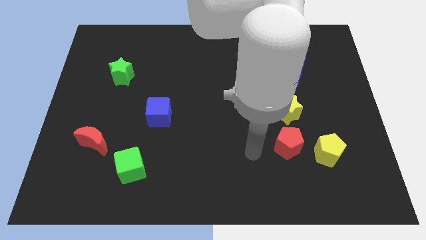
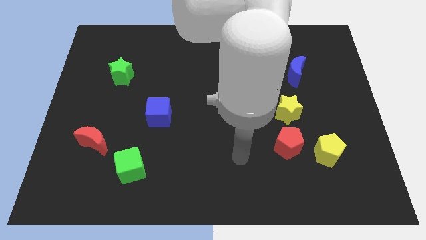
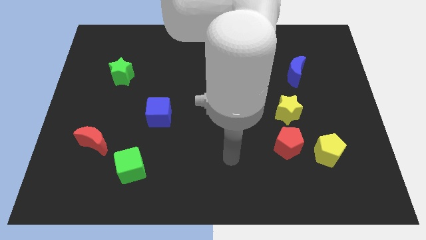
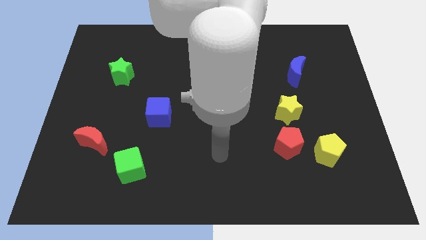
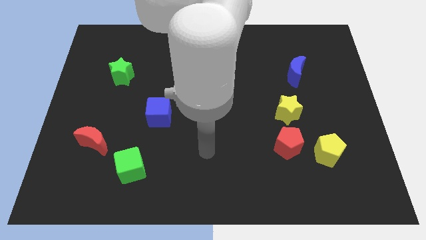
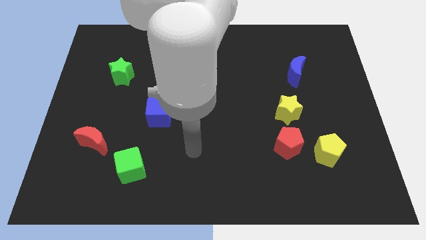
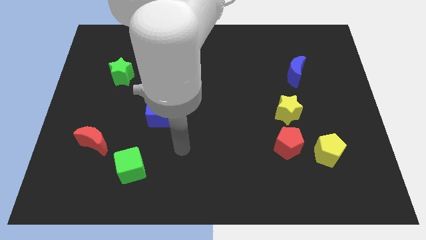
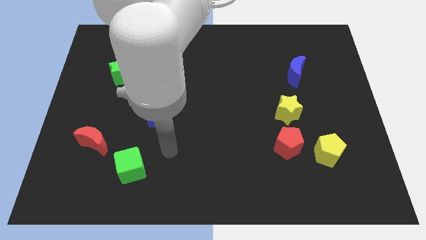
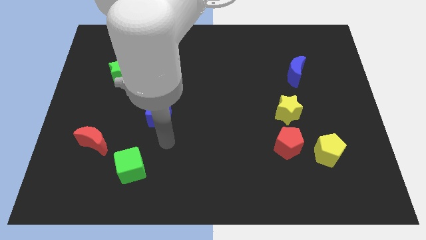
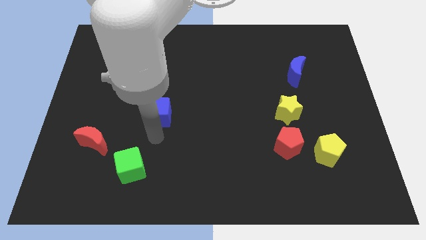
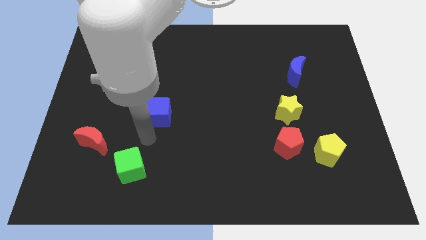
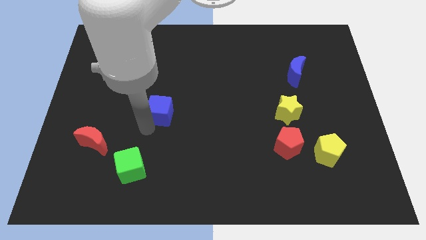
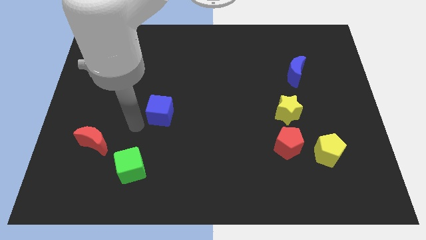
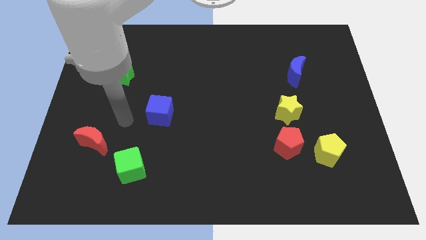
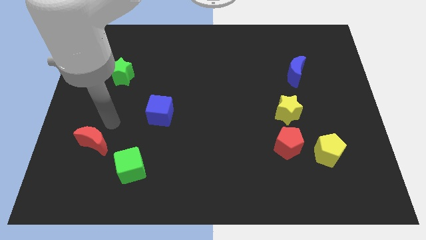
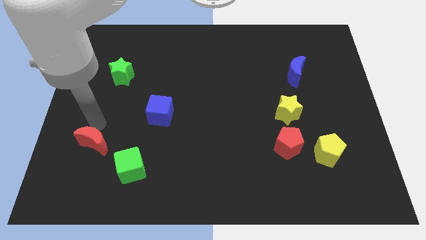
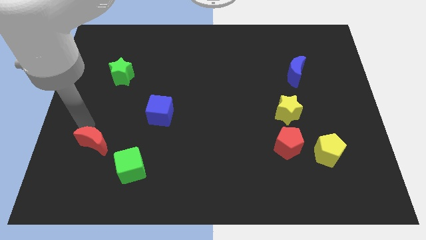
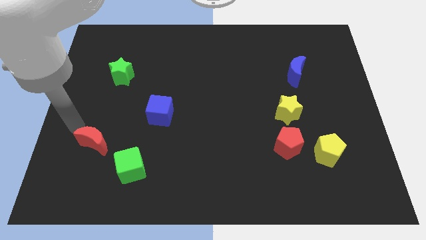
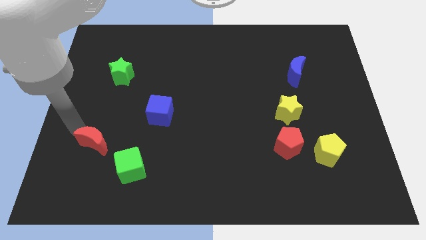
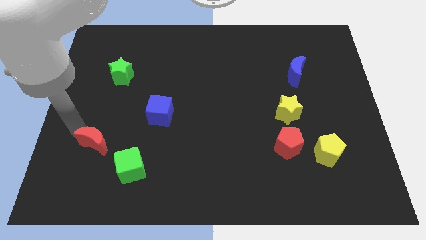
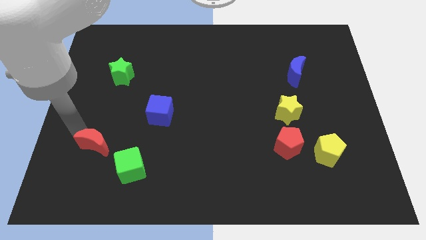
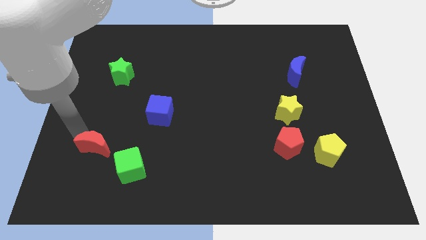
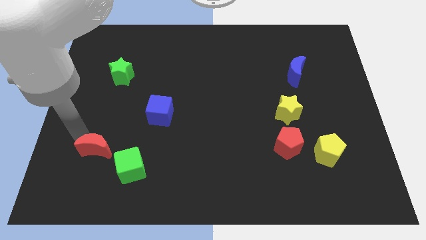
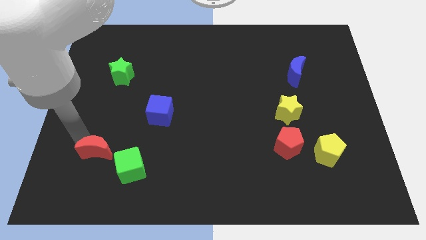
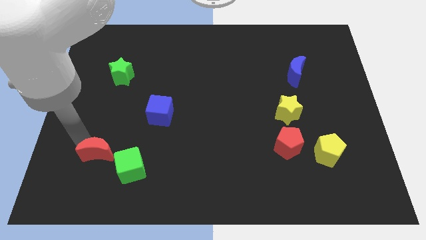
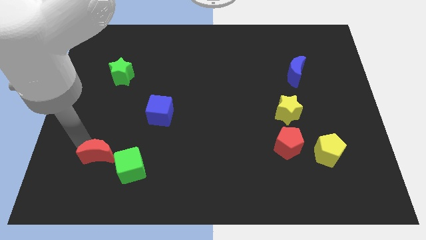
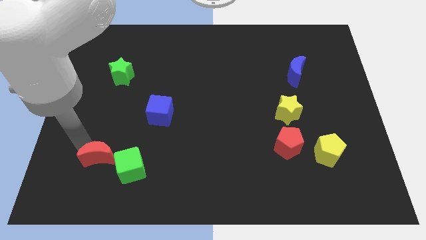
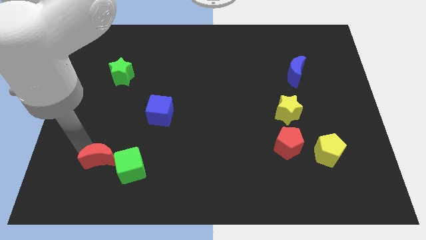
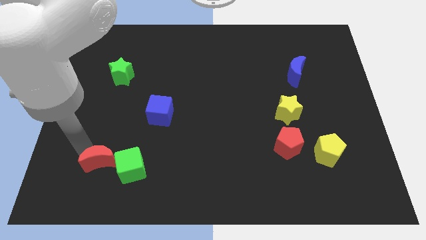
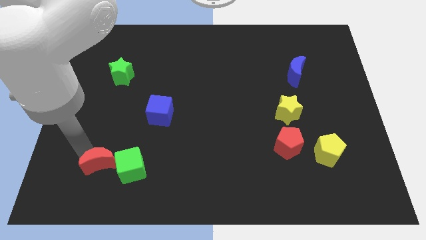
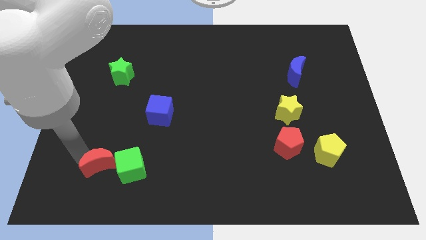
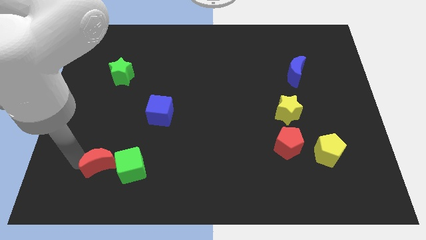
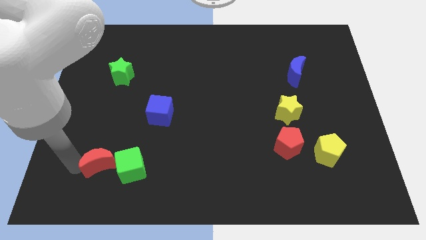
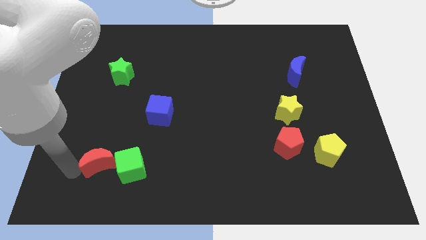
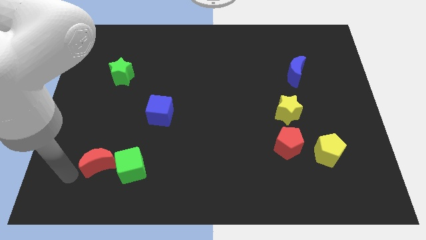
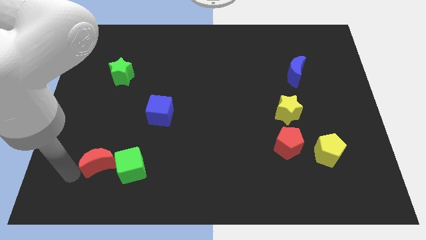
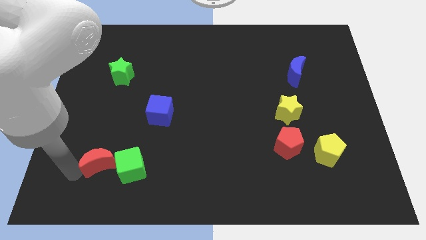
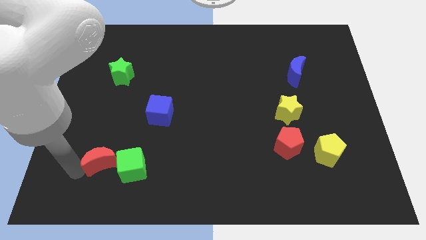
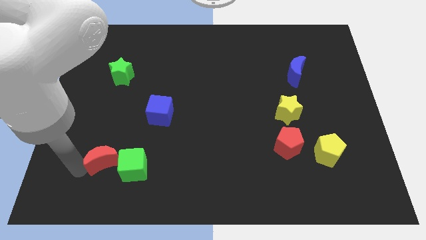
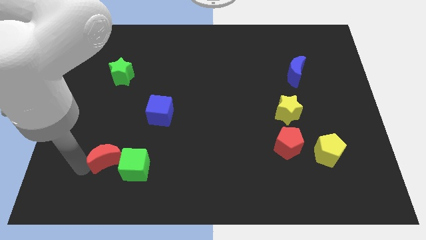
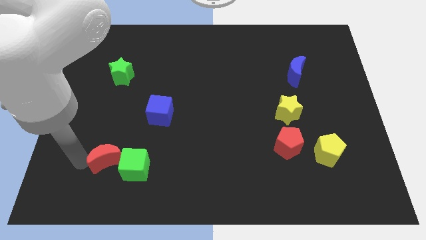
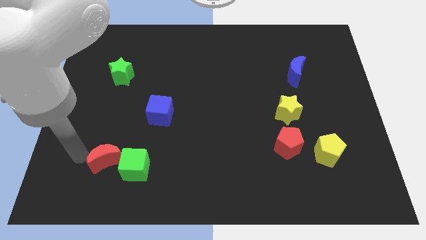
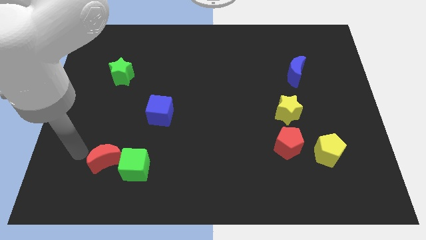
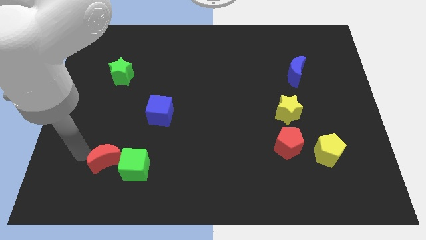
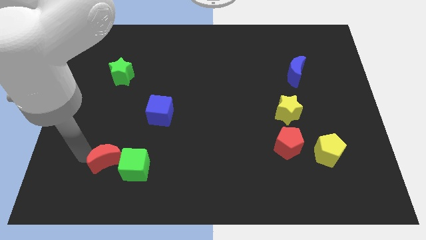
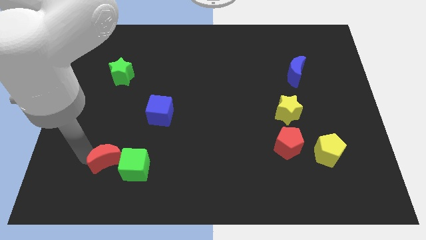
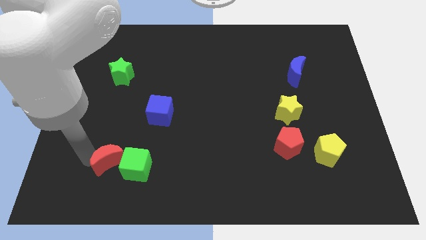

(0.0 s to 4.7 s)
put the red moon towards the green cube

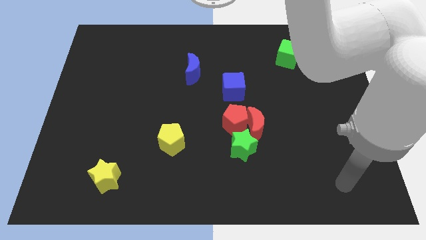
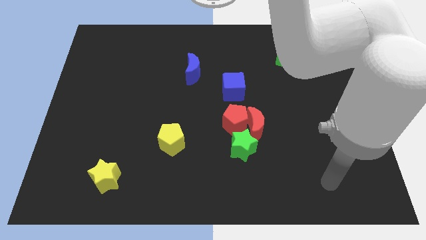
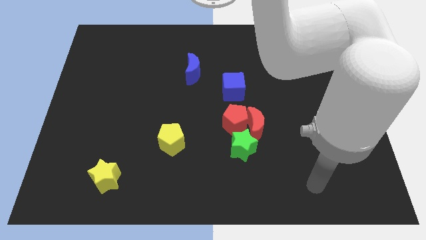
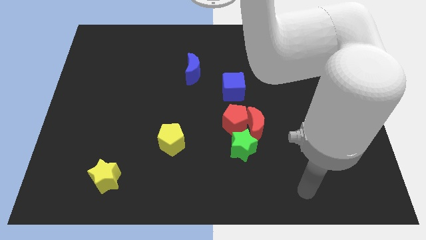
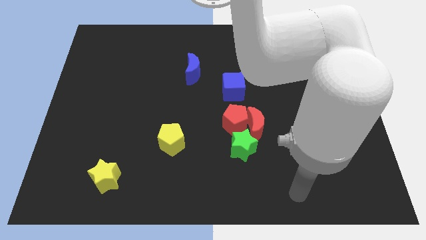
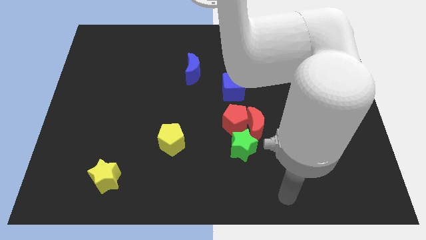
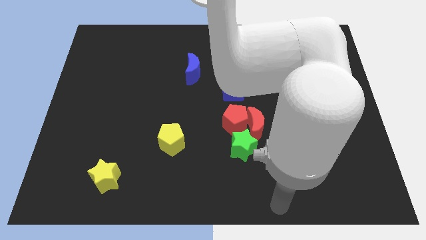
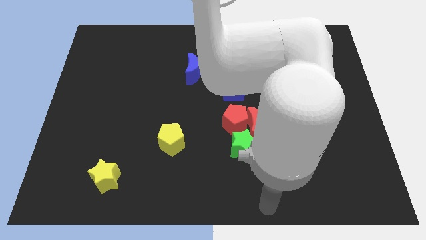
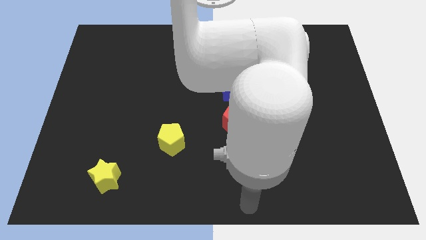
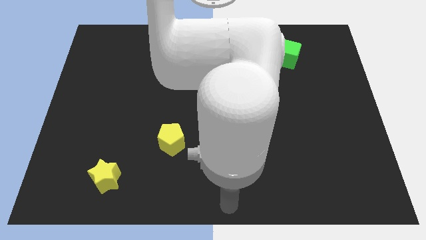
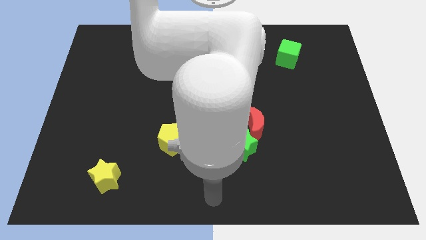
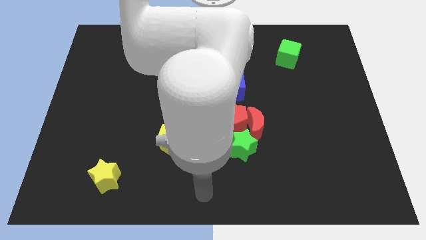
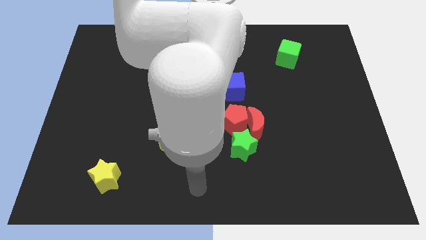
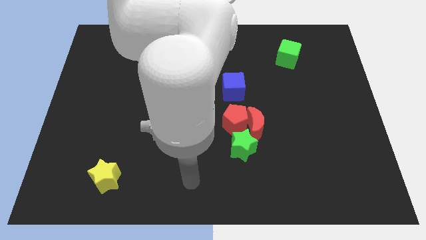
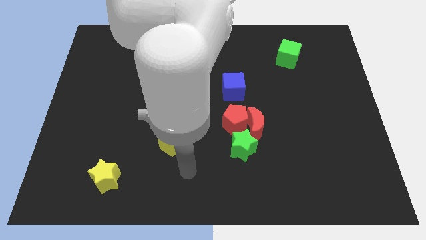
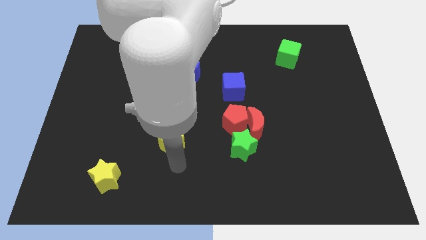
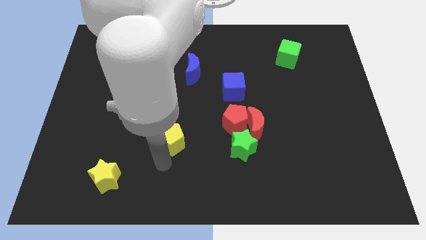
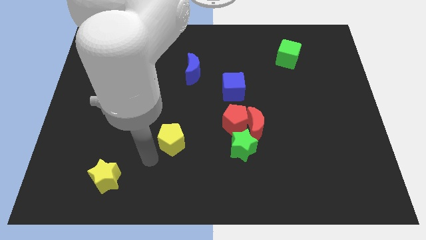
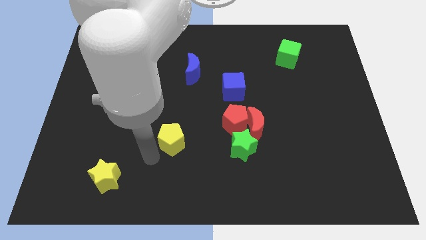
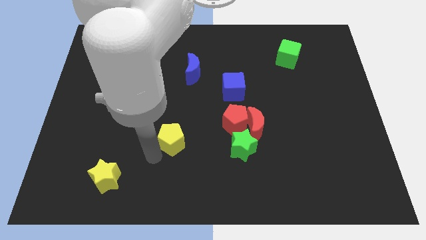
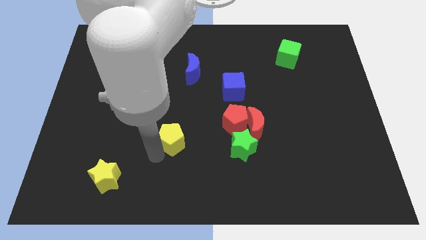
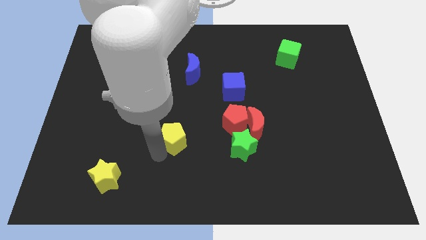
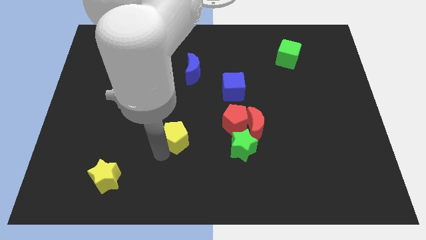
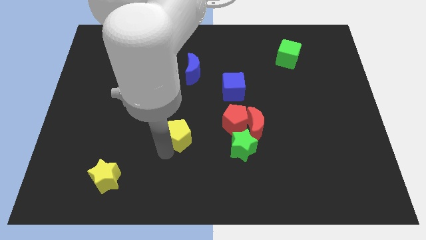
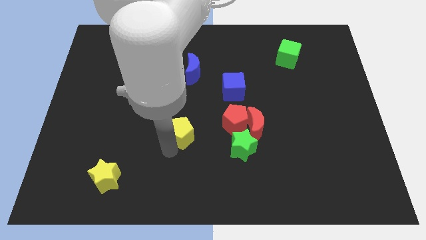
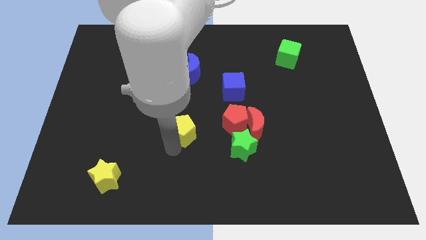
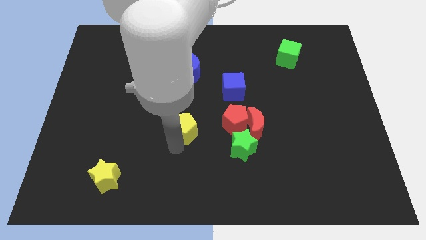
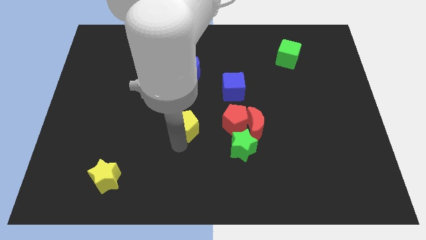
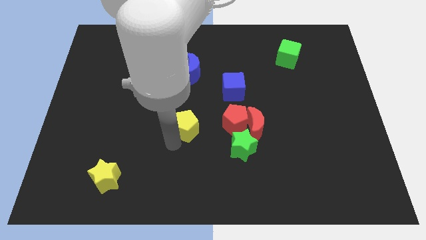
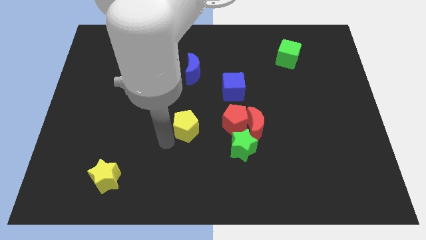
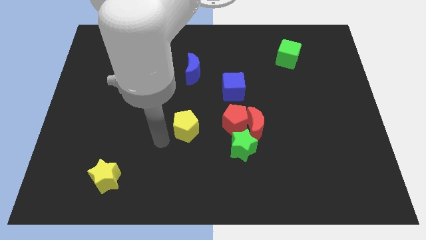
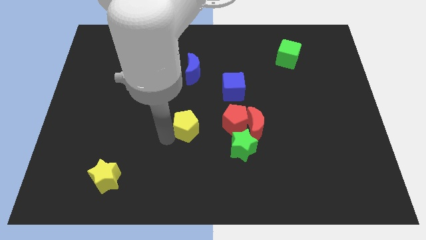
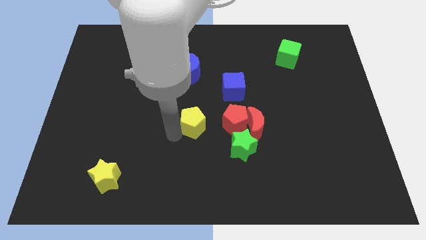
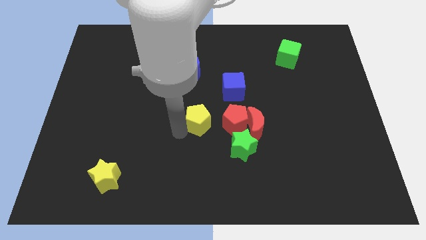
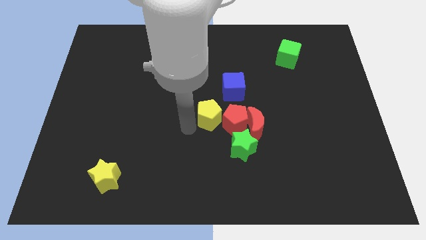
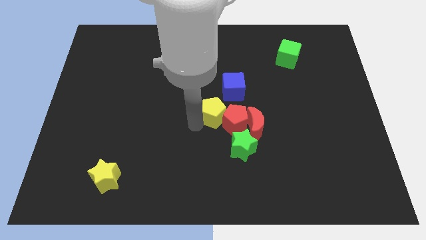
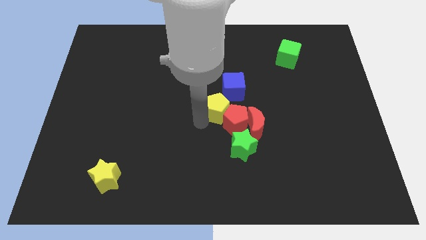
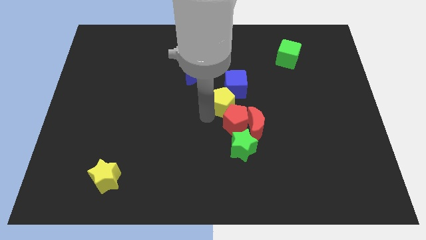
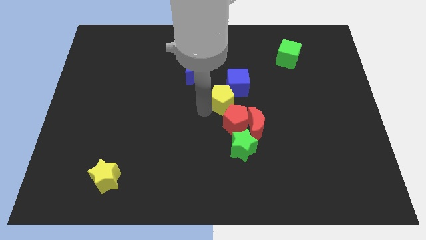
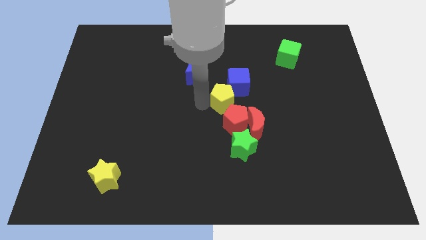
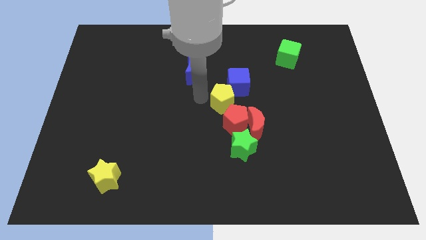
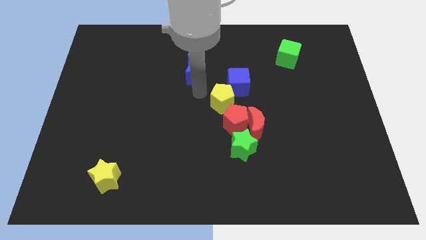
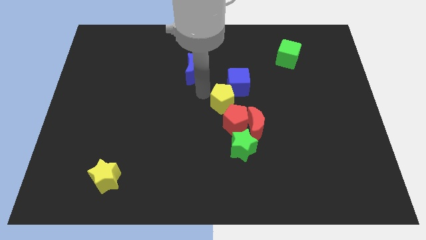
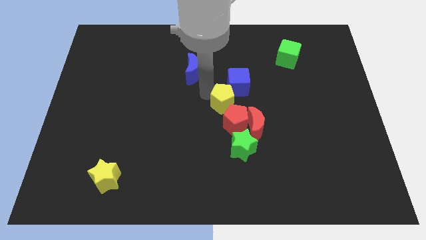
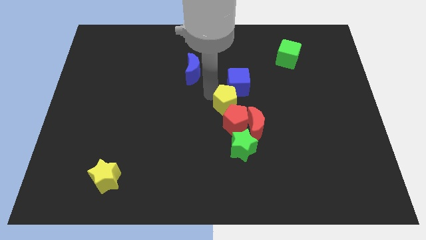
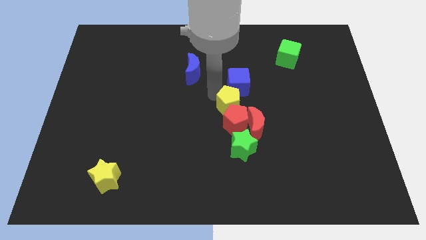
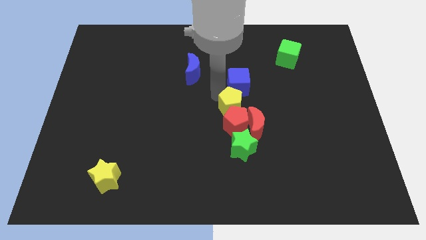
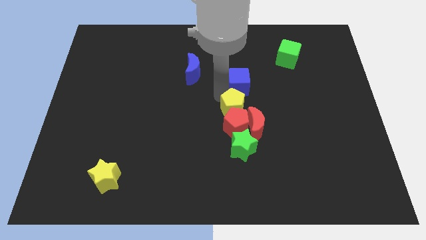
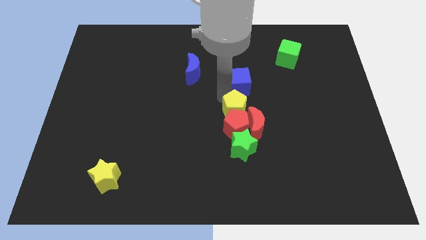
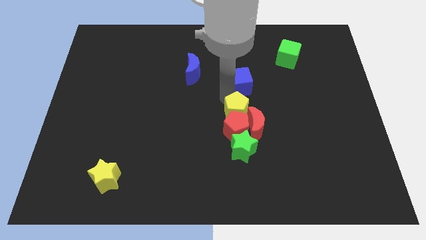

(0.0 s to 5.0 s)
slide the yellow pentagon next to the red moon
